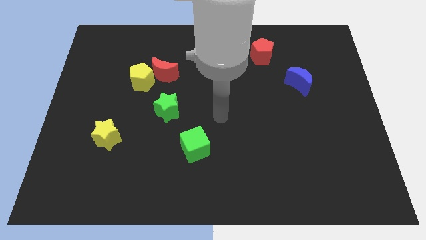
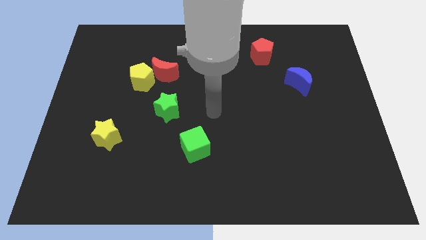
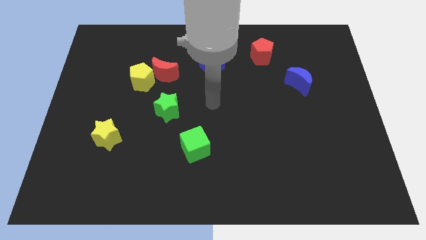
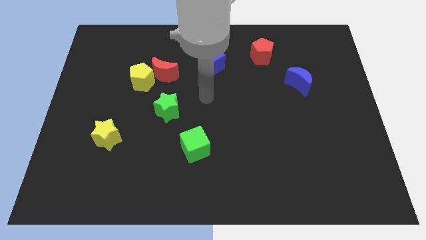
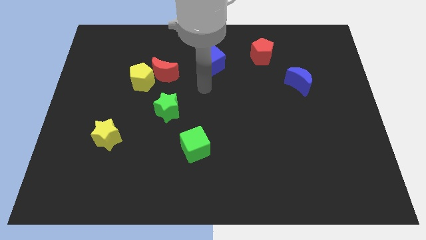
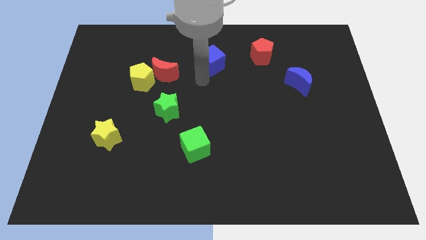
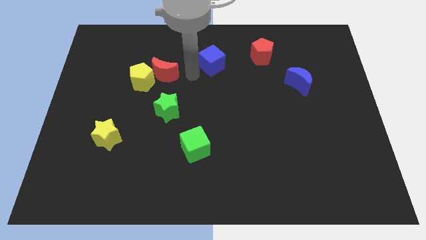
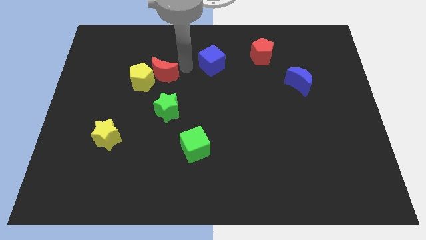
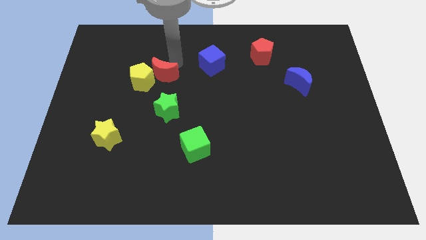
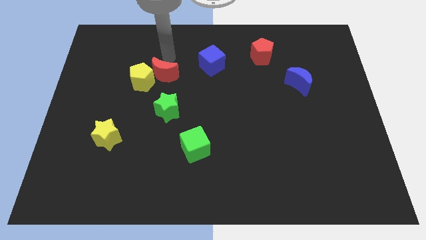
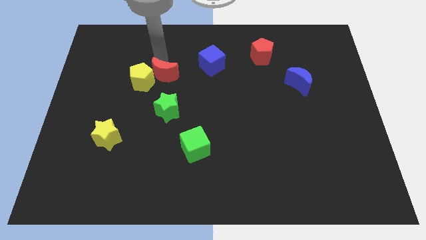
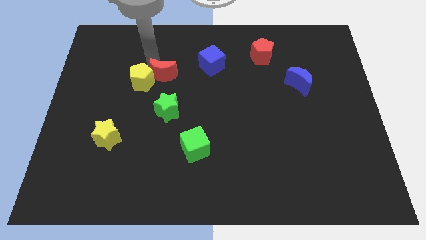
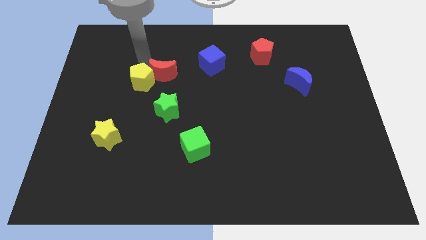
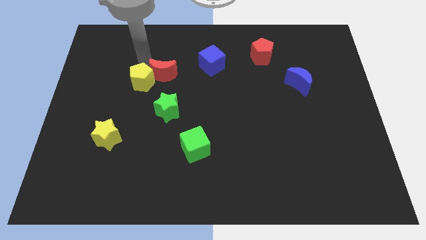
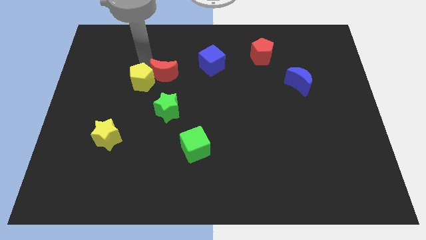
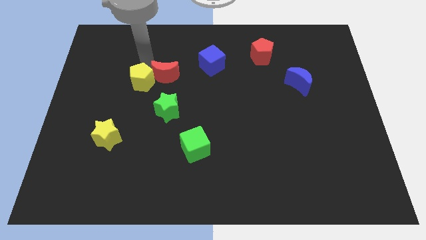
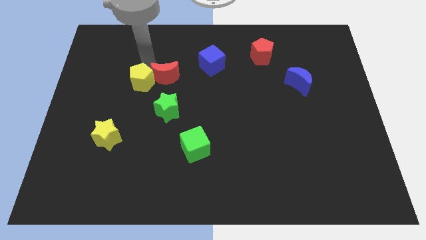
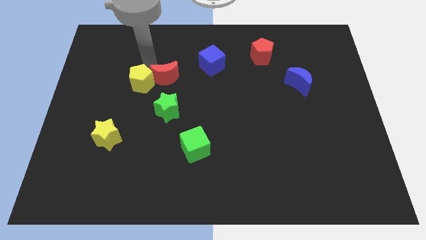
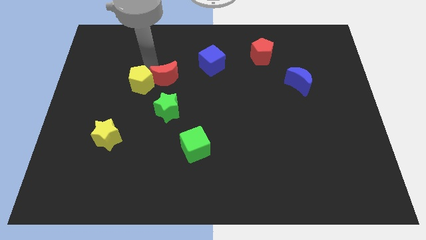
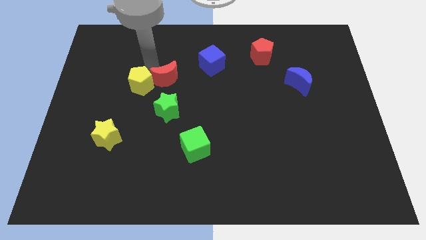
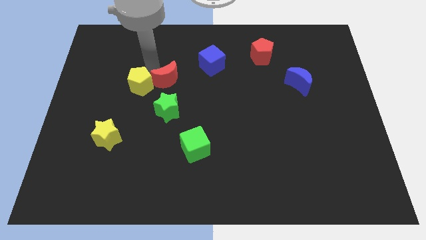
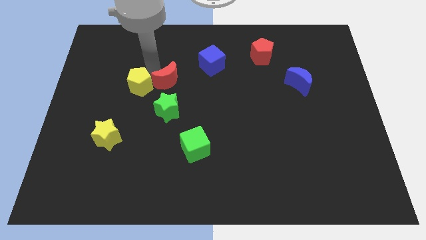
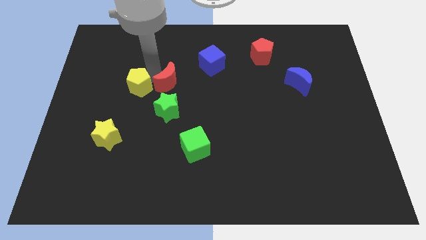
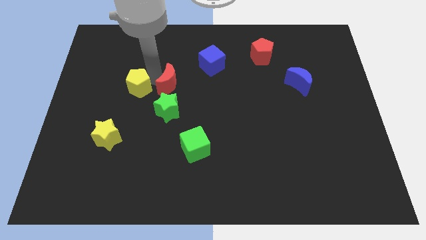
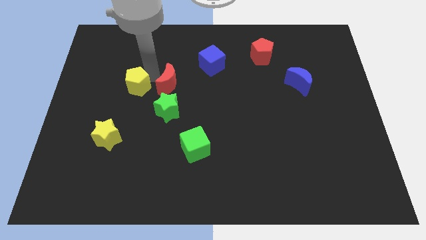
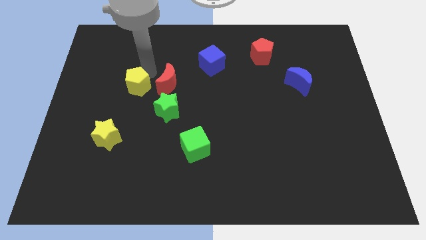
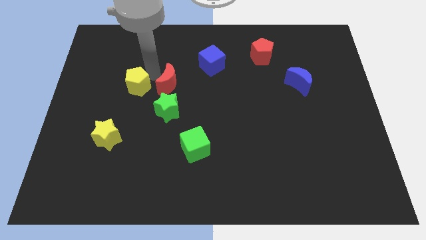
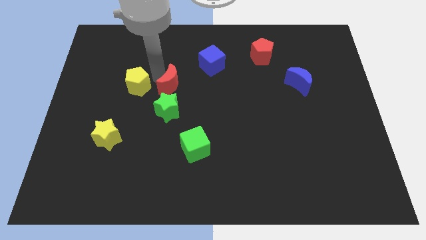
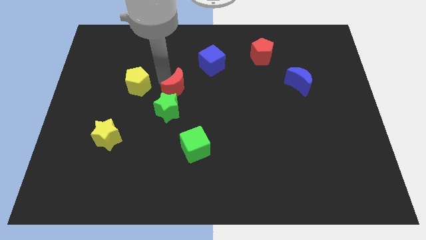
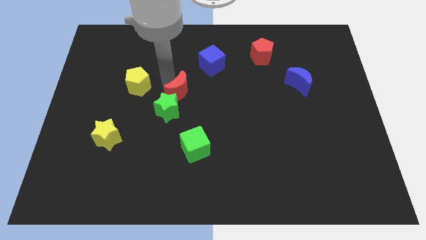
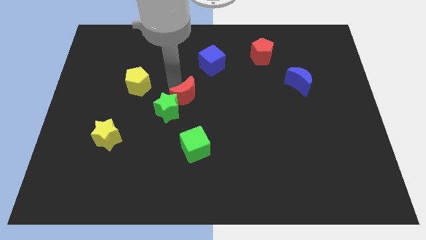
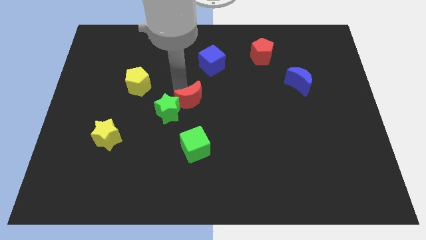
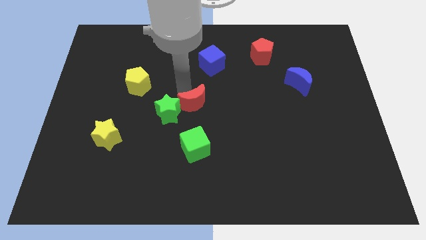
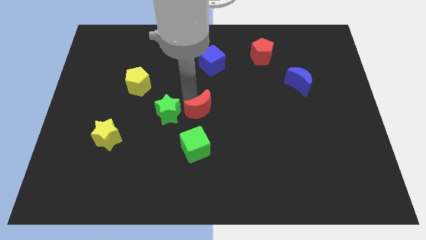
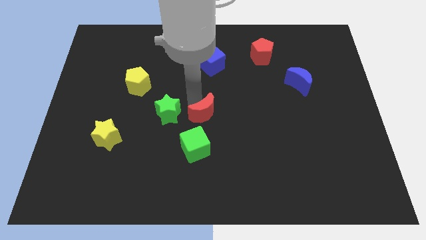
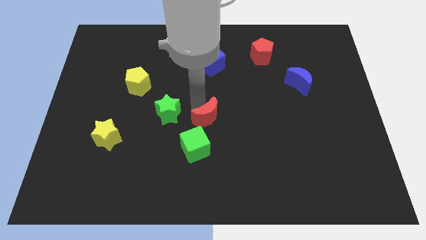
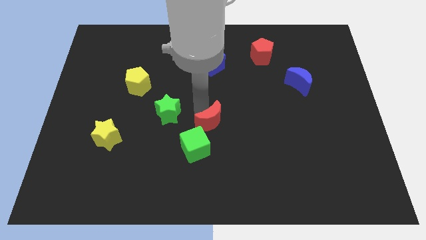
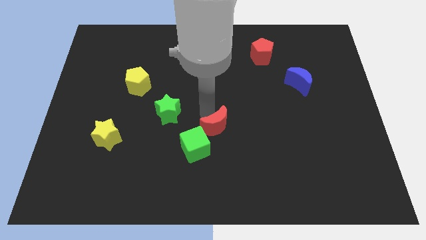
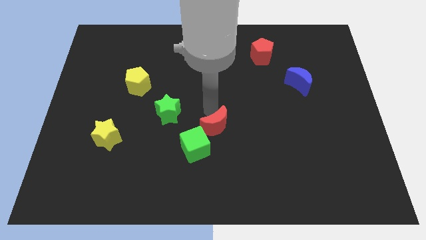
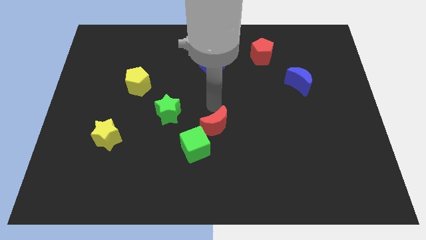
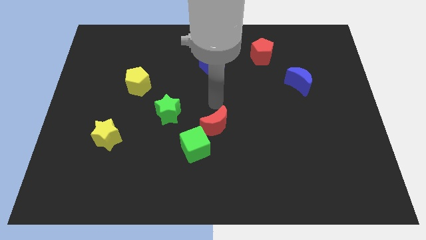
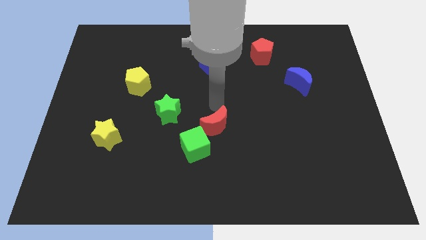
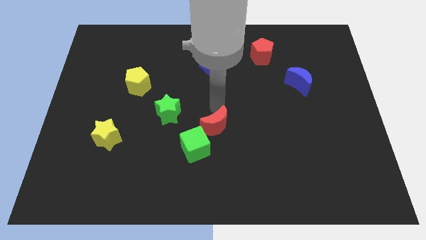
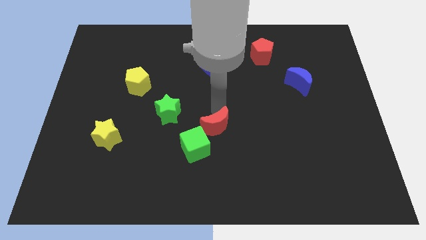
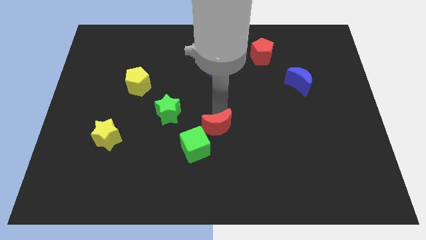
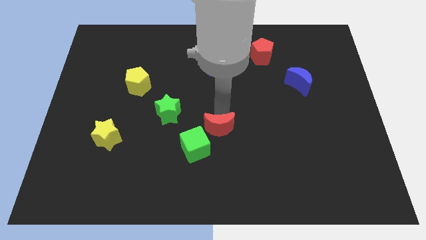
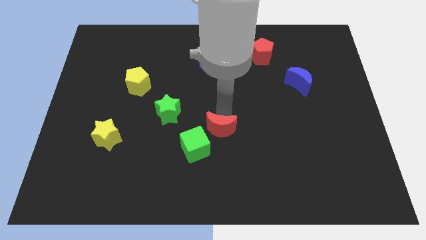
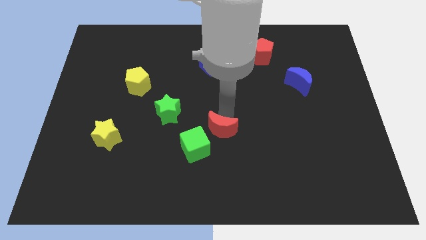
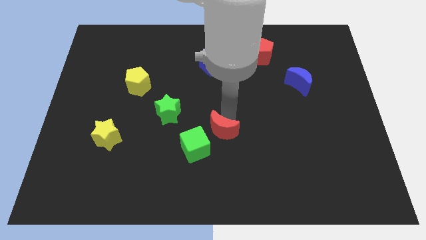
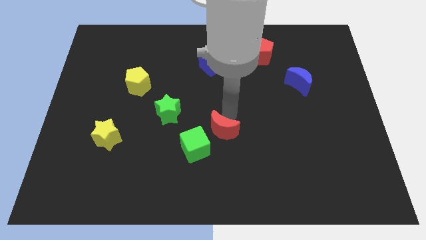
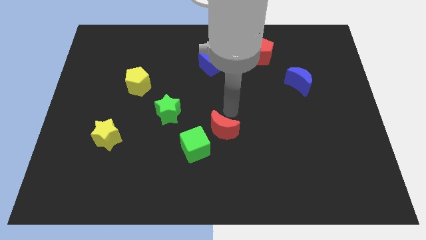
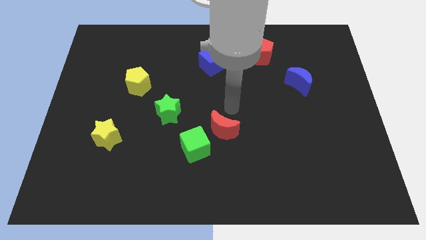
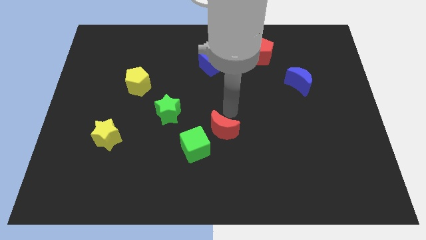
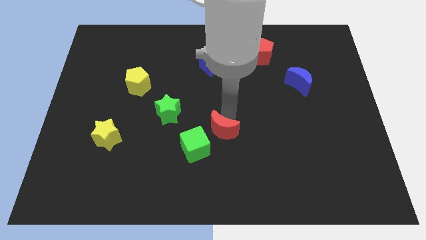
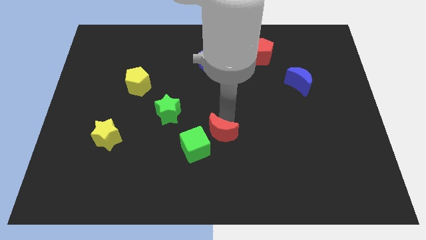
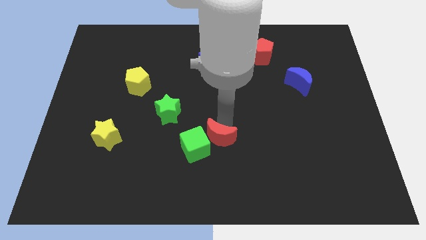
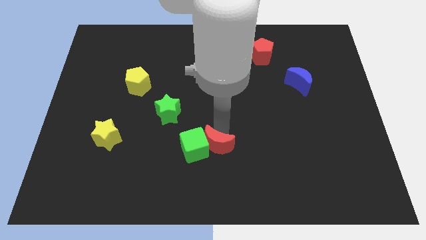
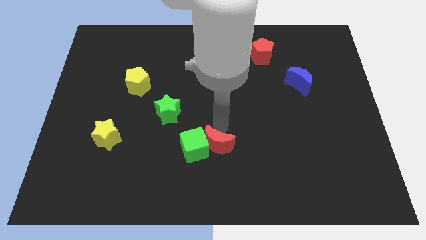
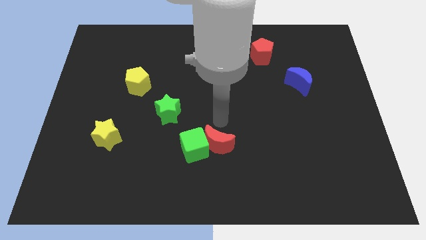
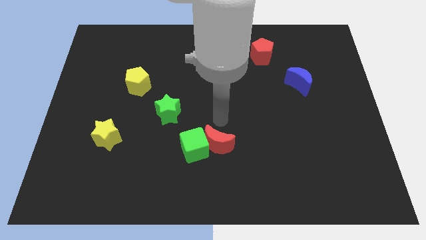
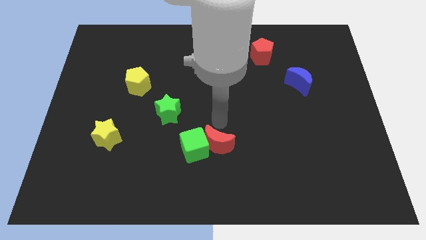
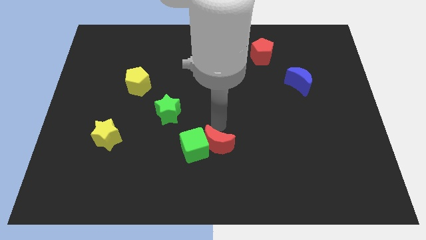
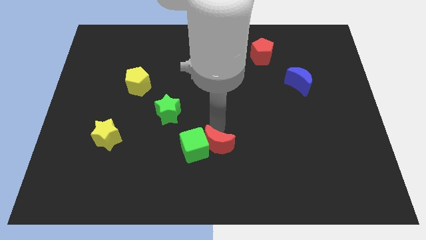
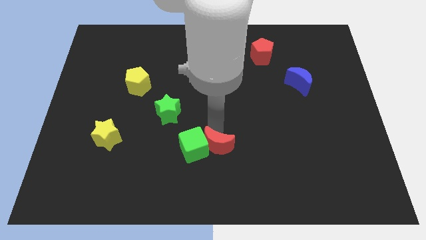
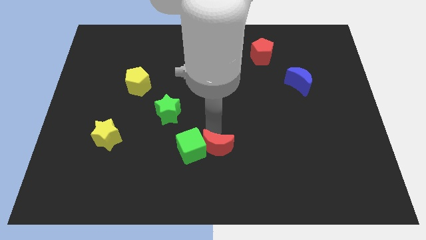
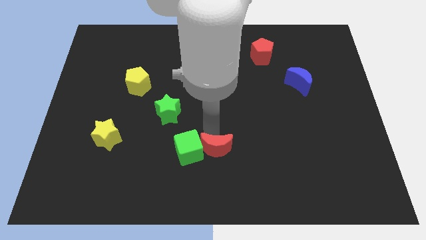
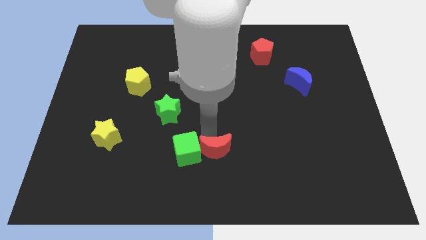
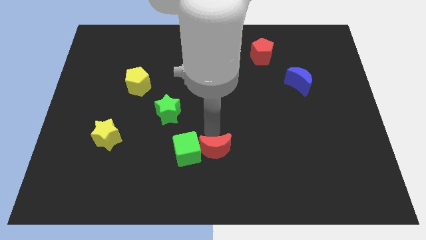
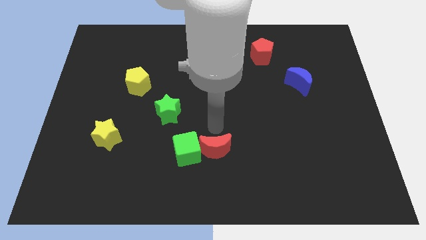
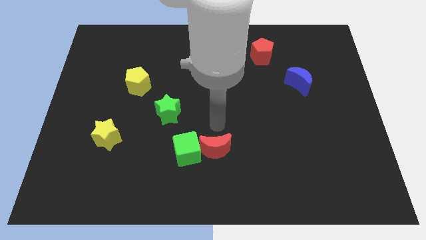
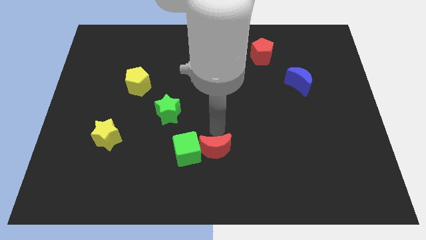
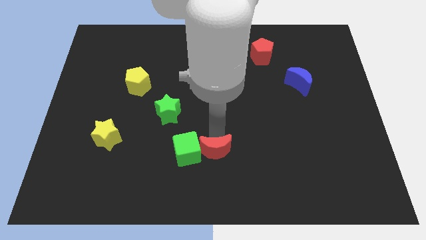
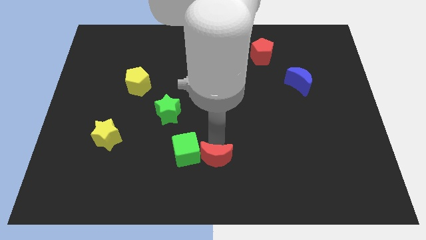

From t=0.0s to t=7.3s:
slide the red moon to the bottom
